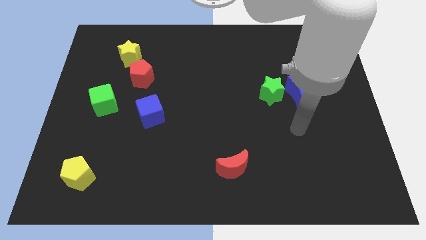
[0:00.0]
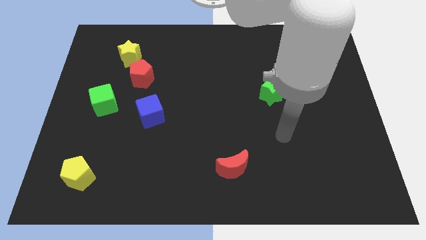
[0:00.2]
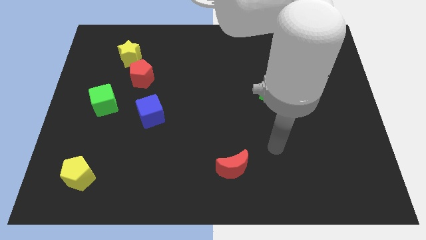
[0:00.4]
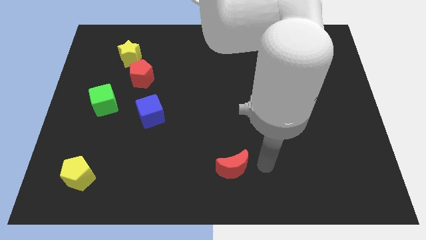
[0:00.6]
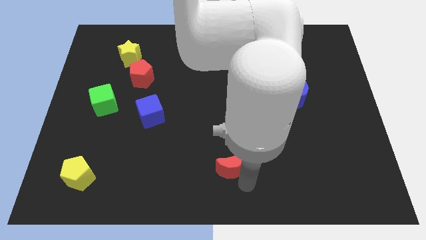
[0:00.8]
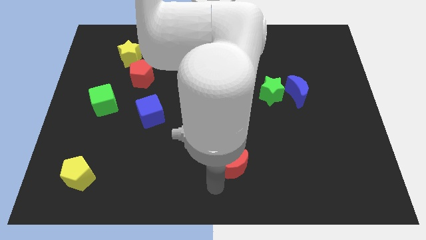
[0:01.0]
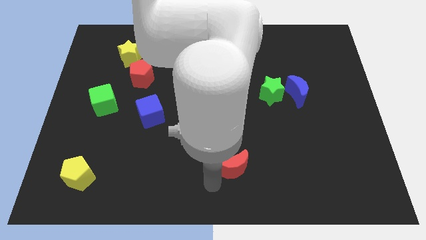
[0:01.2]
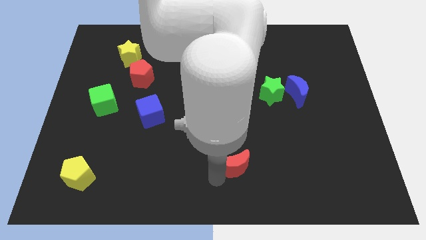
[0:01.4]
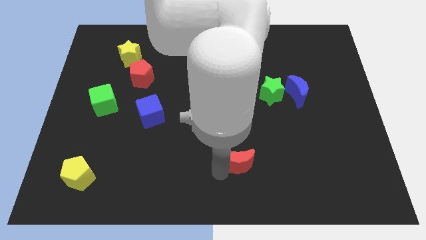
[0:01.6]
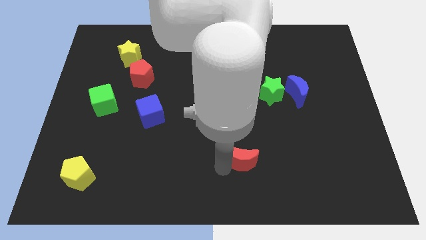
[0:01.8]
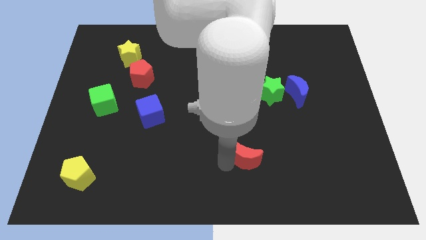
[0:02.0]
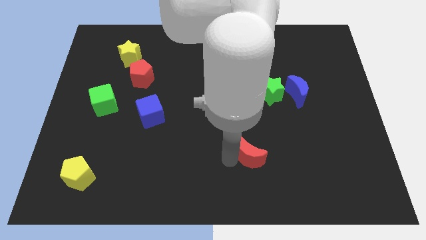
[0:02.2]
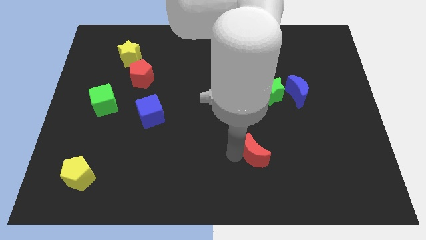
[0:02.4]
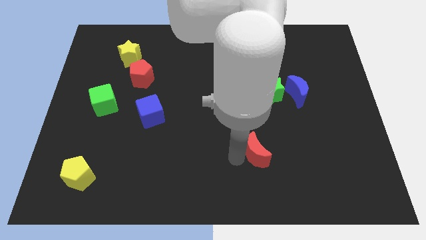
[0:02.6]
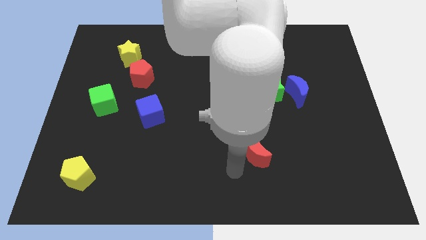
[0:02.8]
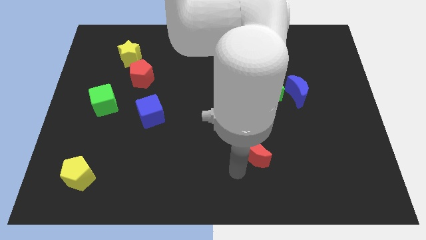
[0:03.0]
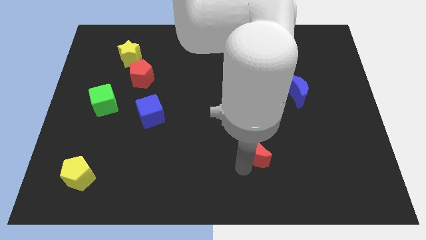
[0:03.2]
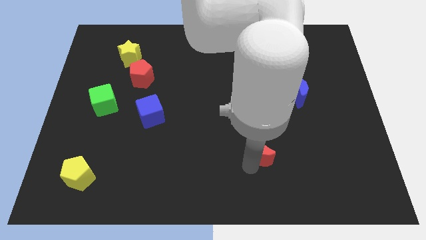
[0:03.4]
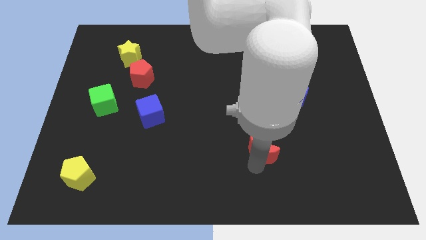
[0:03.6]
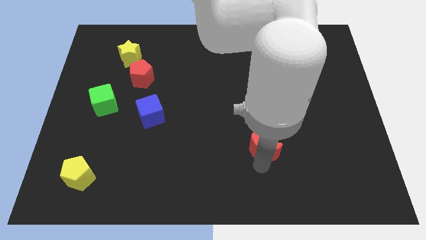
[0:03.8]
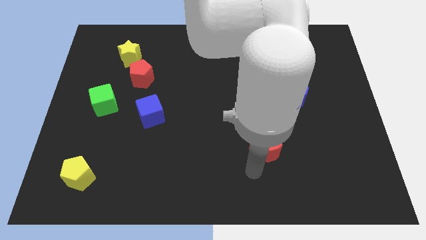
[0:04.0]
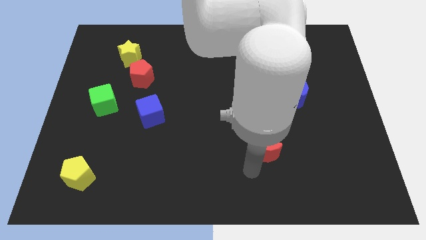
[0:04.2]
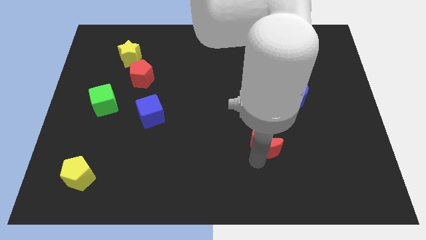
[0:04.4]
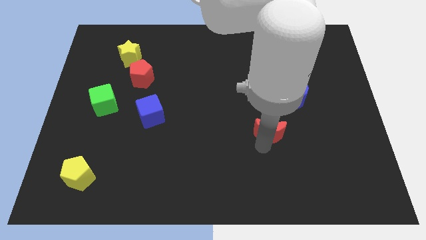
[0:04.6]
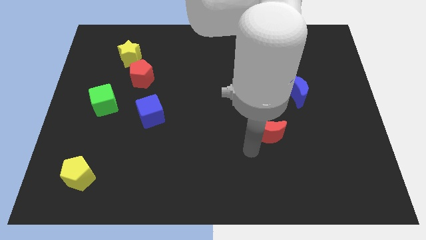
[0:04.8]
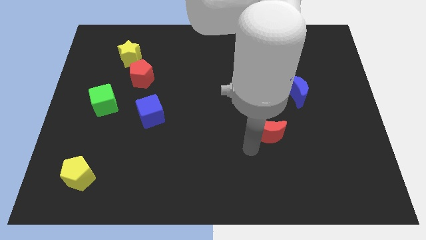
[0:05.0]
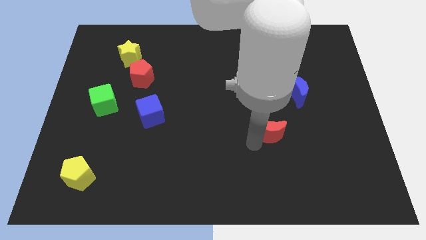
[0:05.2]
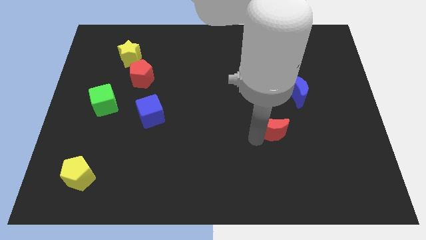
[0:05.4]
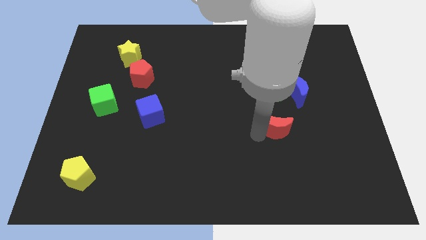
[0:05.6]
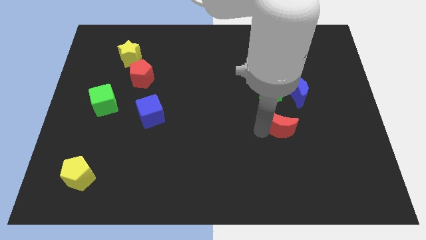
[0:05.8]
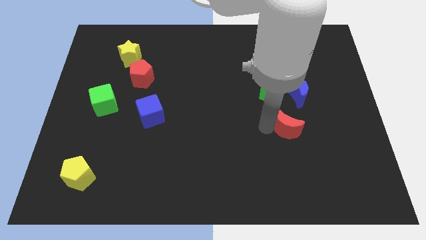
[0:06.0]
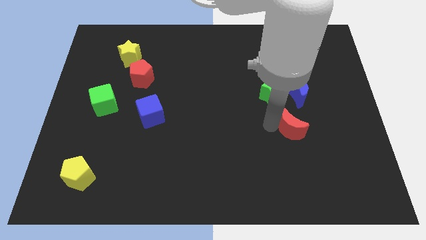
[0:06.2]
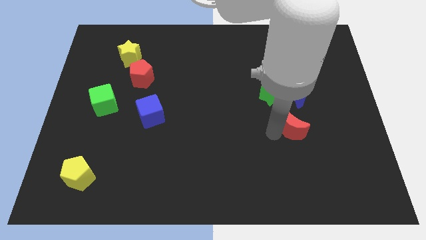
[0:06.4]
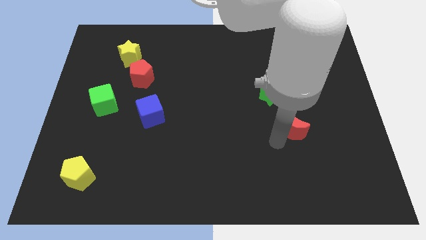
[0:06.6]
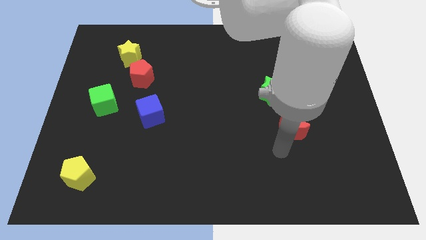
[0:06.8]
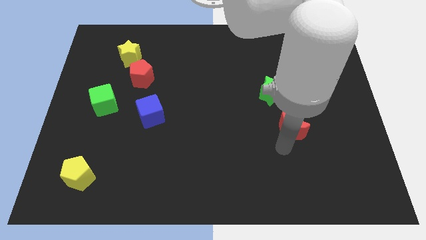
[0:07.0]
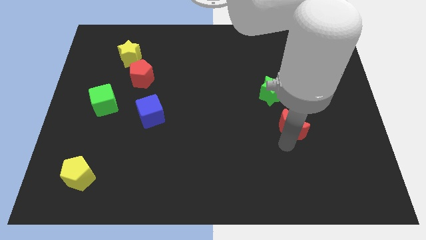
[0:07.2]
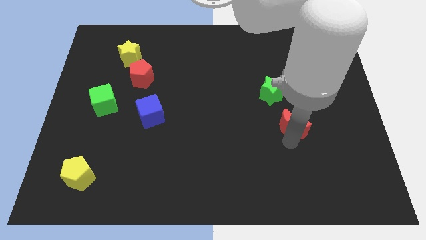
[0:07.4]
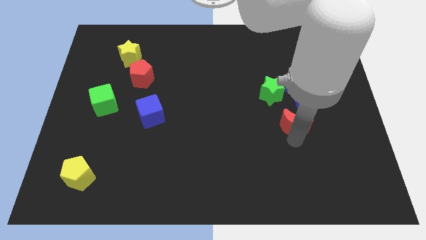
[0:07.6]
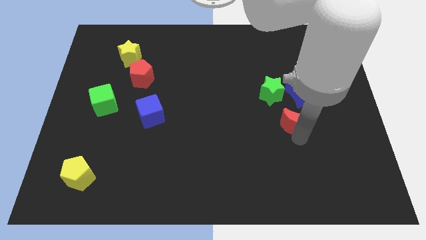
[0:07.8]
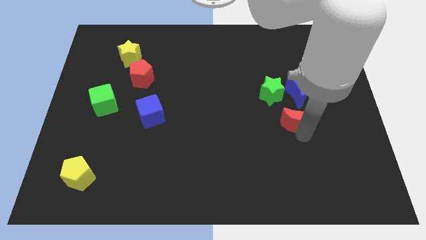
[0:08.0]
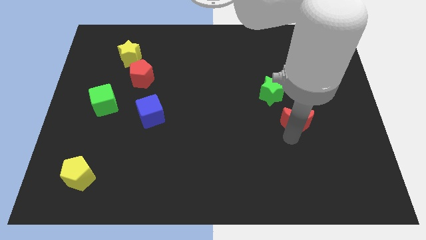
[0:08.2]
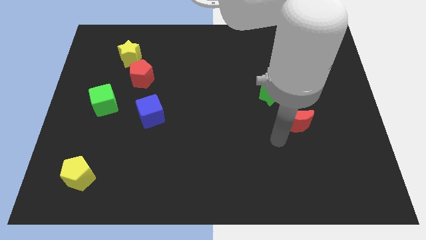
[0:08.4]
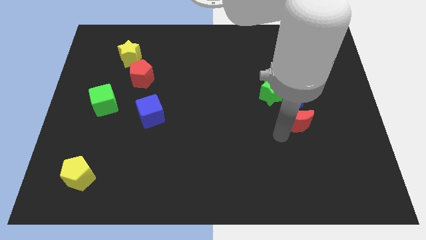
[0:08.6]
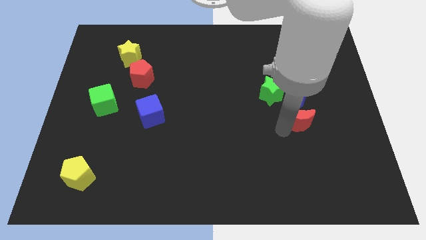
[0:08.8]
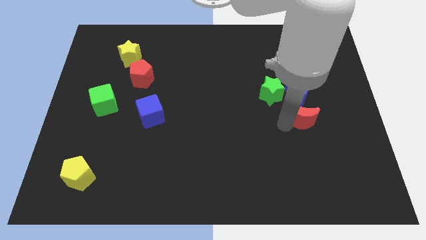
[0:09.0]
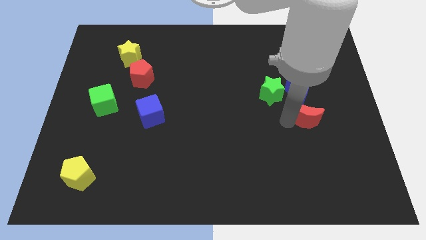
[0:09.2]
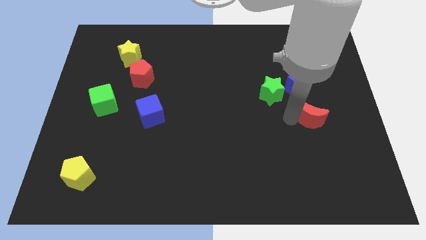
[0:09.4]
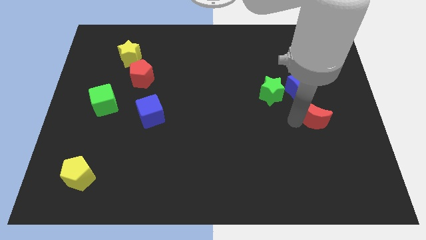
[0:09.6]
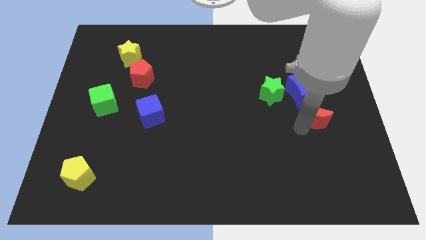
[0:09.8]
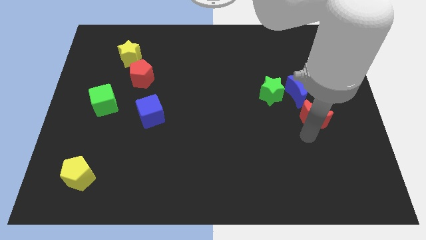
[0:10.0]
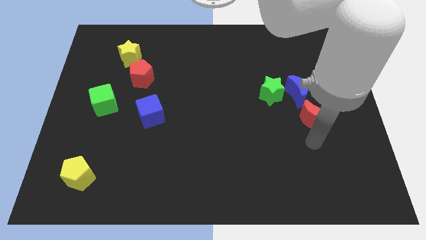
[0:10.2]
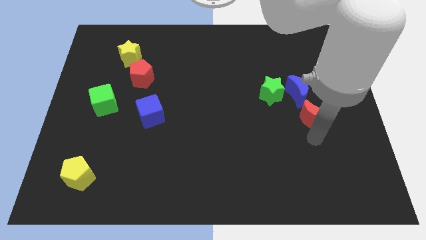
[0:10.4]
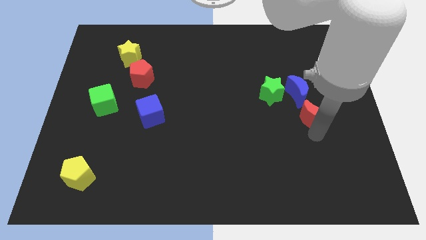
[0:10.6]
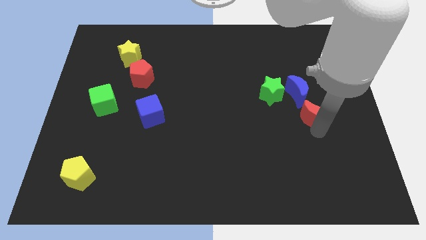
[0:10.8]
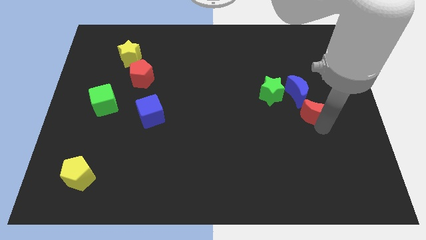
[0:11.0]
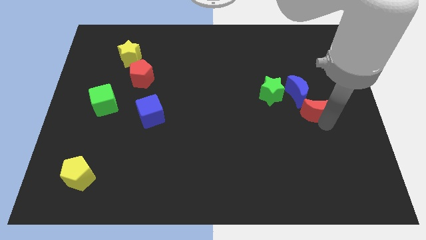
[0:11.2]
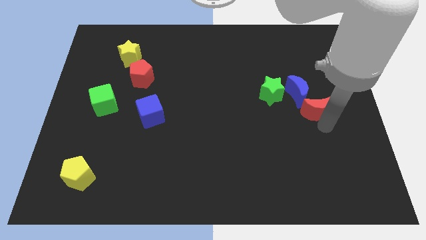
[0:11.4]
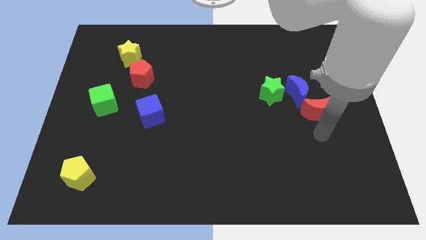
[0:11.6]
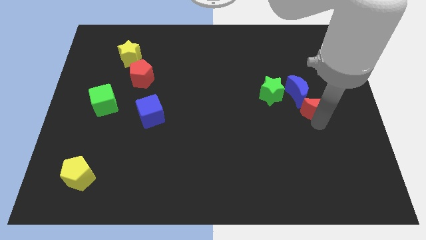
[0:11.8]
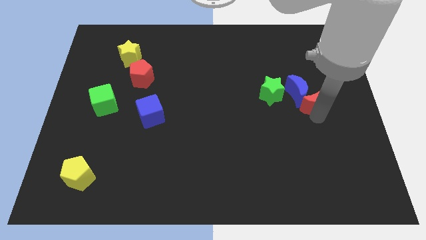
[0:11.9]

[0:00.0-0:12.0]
push the red moon right of the green star
